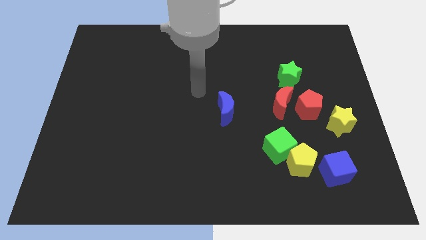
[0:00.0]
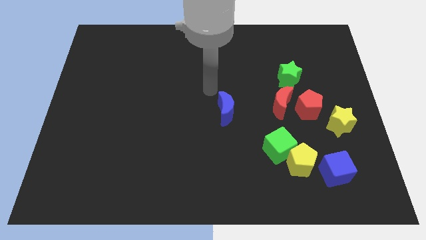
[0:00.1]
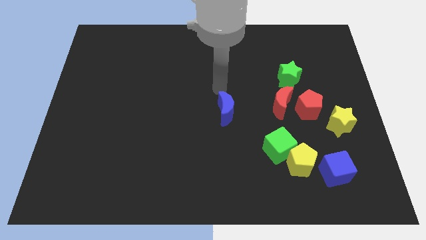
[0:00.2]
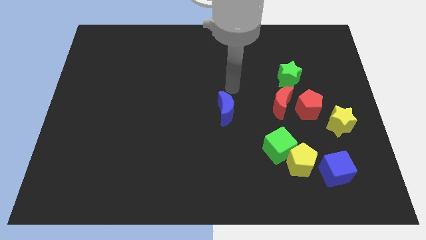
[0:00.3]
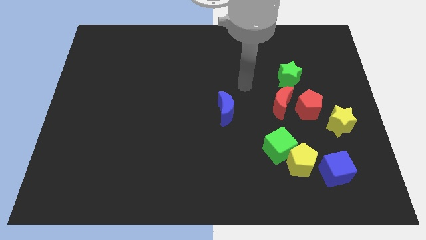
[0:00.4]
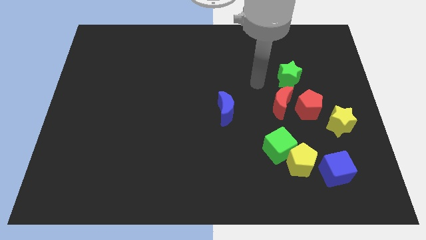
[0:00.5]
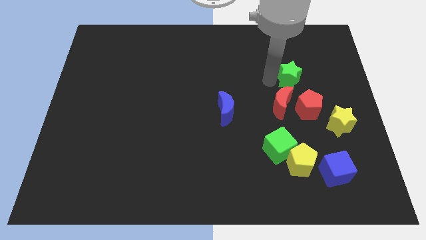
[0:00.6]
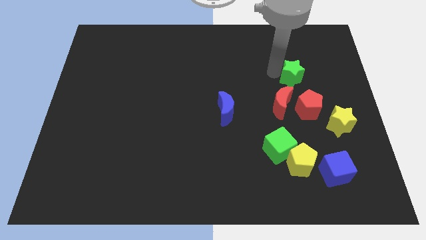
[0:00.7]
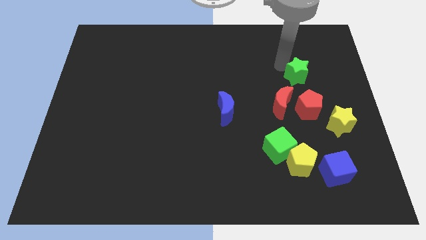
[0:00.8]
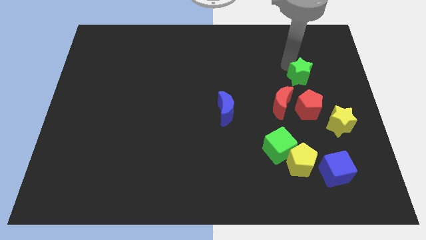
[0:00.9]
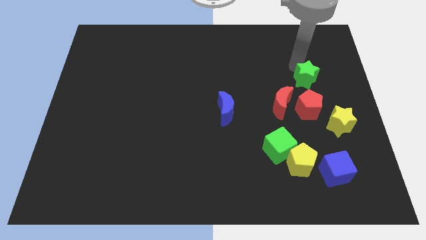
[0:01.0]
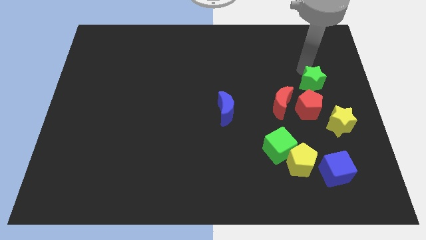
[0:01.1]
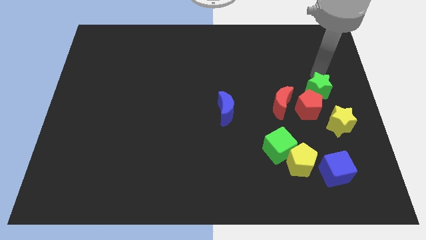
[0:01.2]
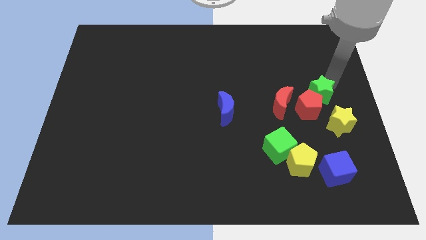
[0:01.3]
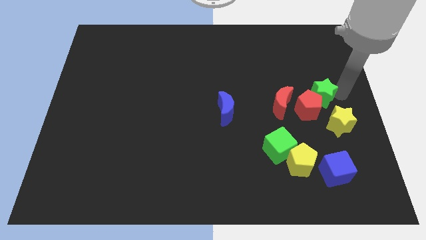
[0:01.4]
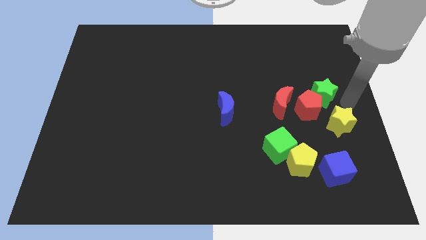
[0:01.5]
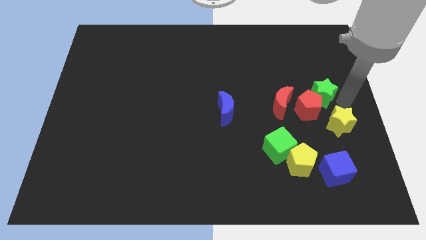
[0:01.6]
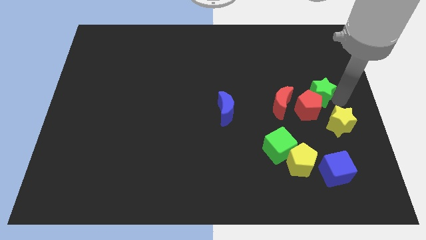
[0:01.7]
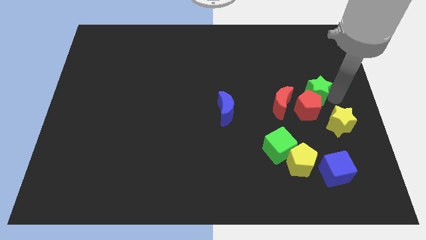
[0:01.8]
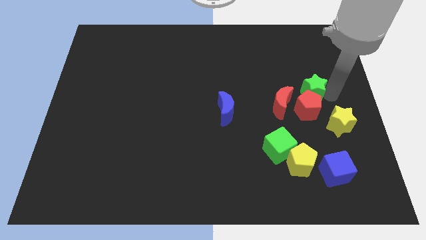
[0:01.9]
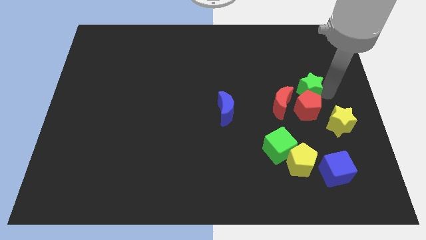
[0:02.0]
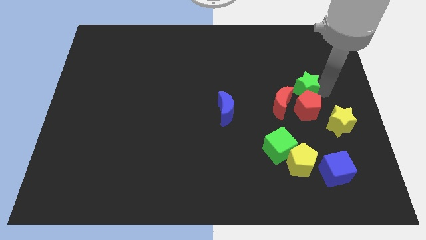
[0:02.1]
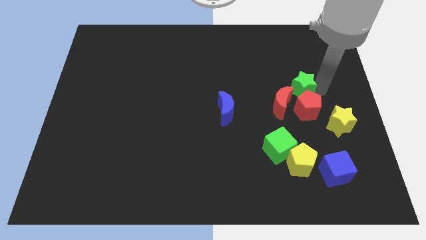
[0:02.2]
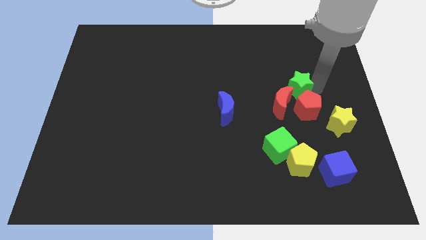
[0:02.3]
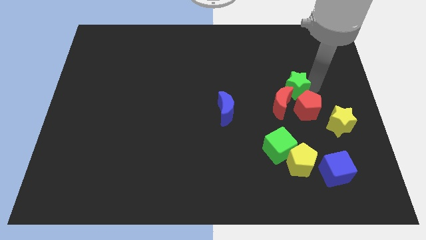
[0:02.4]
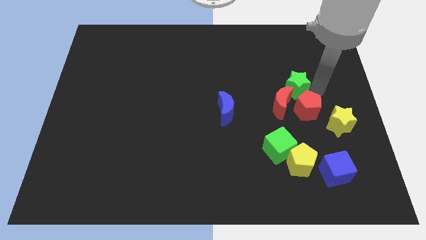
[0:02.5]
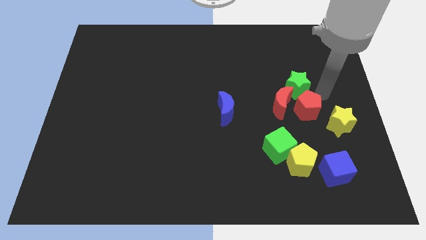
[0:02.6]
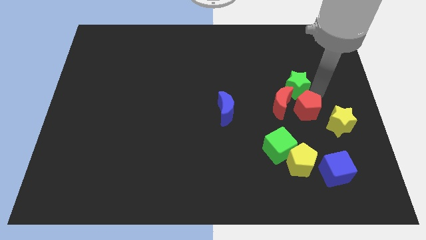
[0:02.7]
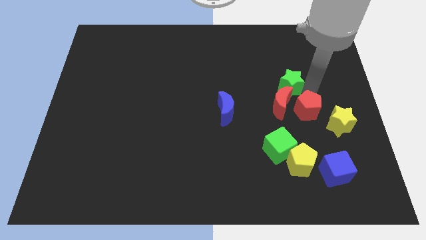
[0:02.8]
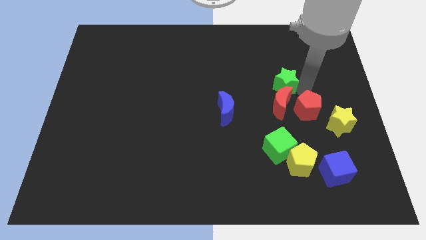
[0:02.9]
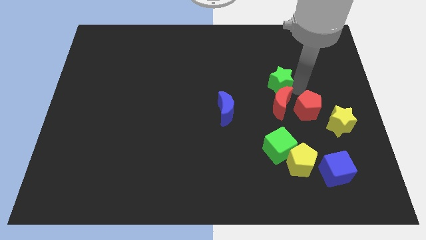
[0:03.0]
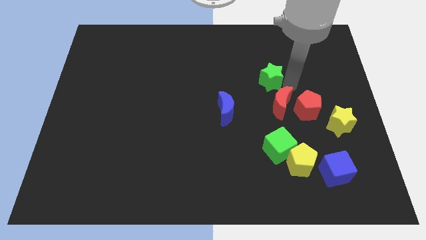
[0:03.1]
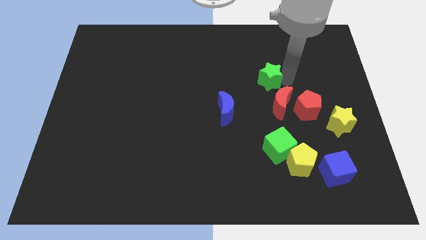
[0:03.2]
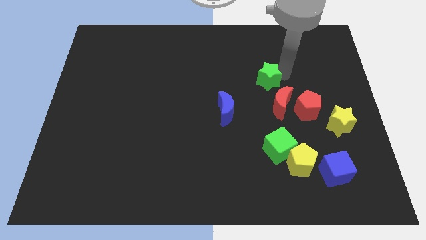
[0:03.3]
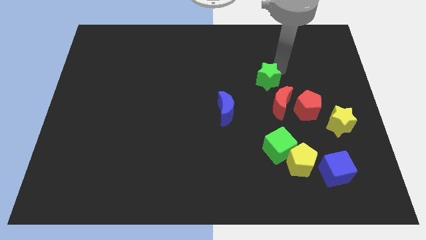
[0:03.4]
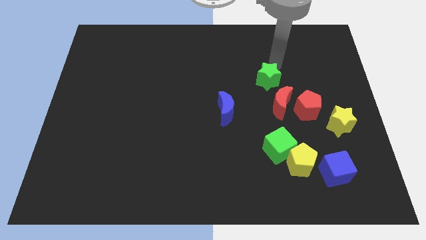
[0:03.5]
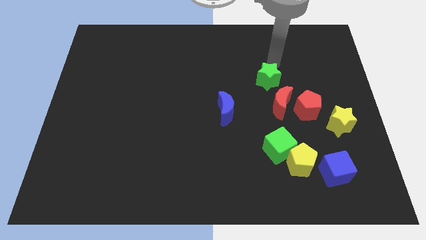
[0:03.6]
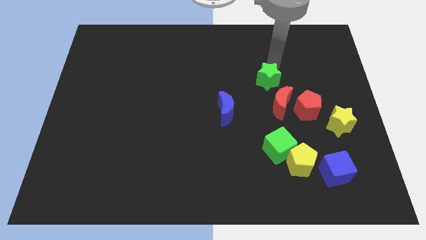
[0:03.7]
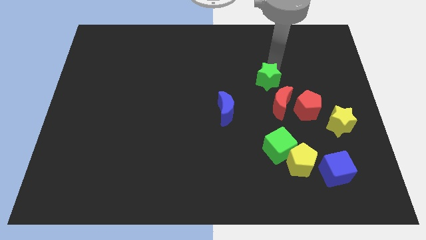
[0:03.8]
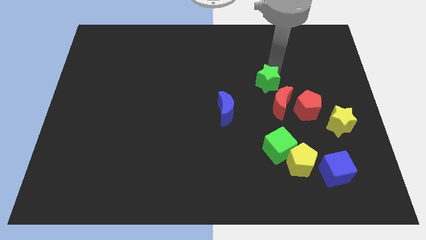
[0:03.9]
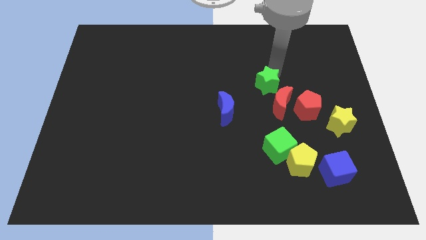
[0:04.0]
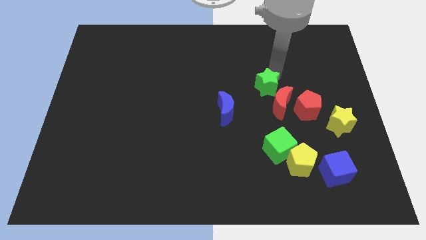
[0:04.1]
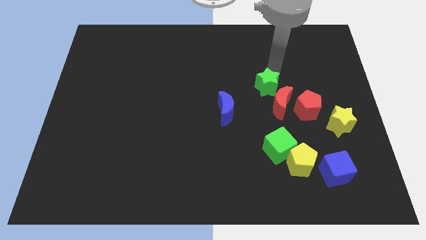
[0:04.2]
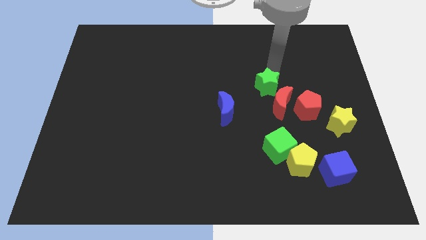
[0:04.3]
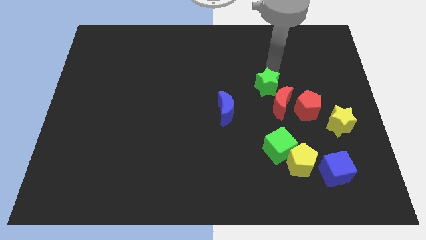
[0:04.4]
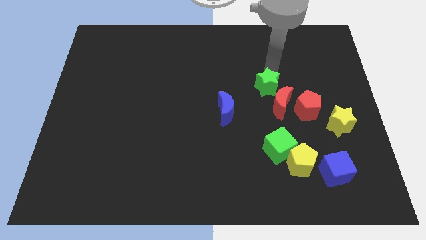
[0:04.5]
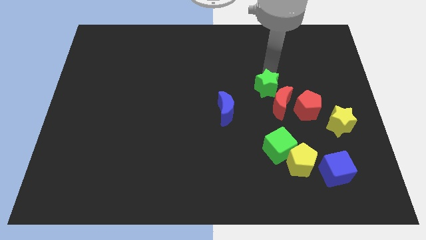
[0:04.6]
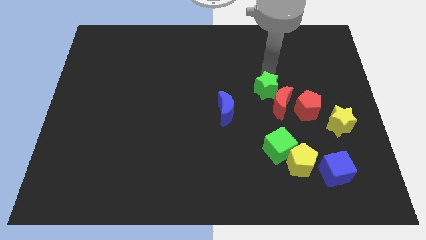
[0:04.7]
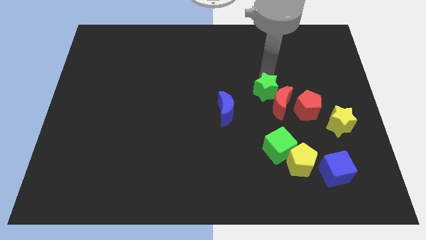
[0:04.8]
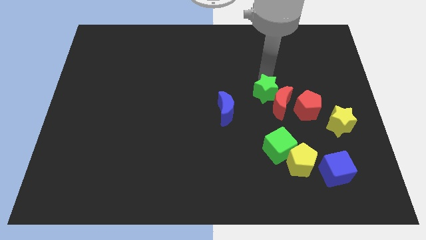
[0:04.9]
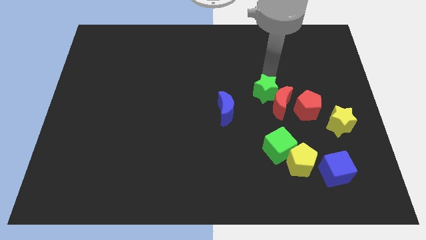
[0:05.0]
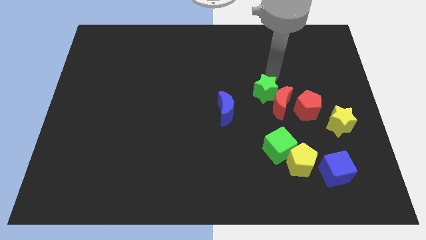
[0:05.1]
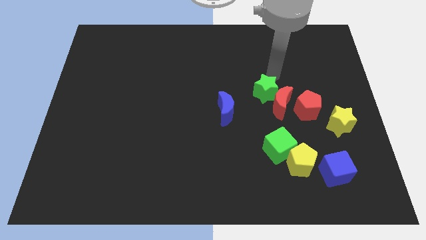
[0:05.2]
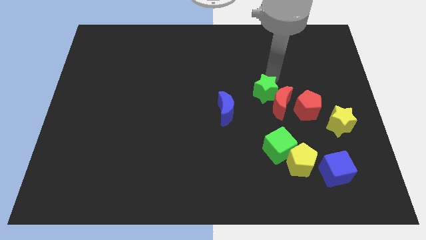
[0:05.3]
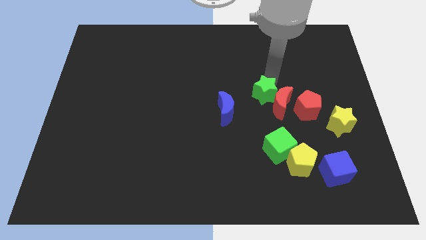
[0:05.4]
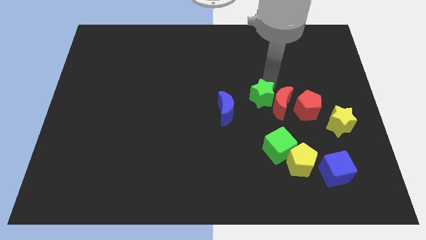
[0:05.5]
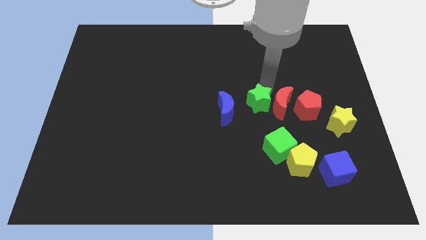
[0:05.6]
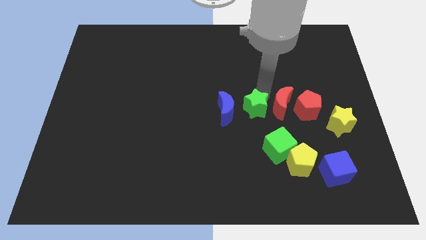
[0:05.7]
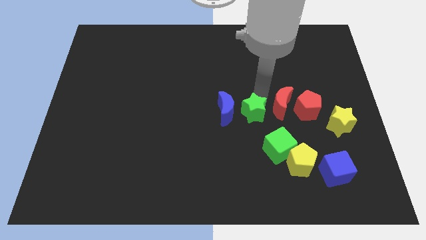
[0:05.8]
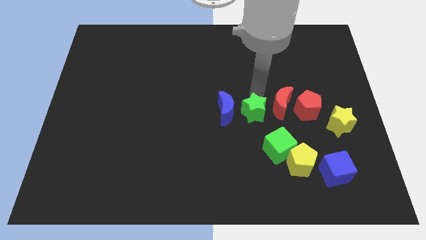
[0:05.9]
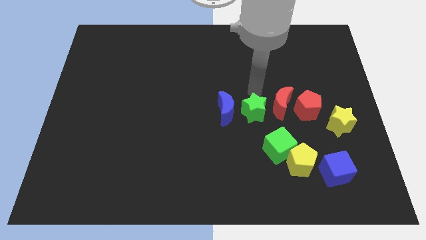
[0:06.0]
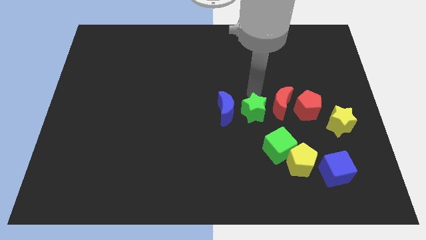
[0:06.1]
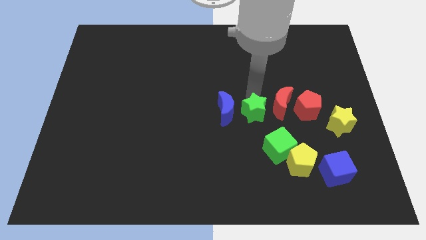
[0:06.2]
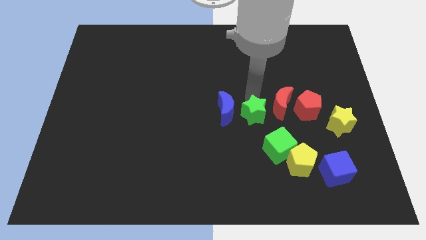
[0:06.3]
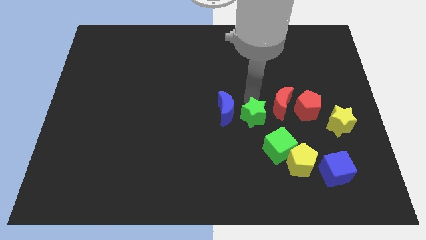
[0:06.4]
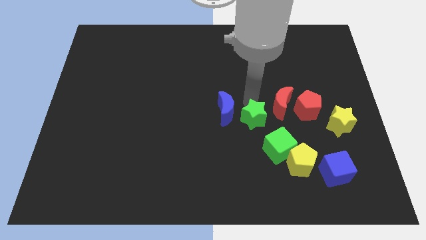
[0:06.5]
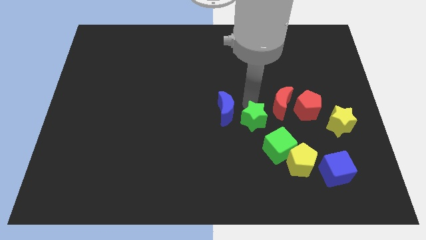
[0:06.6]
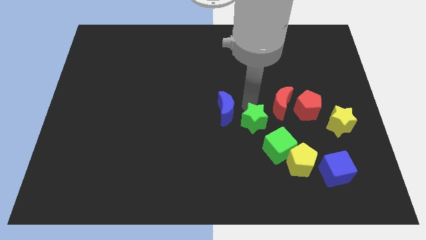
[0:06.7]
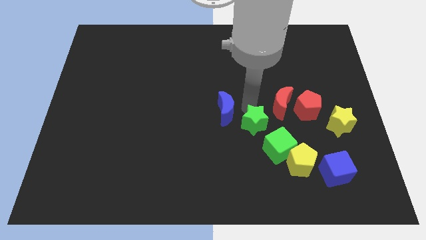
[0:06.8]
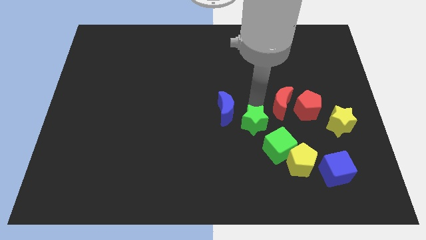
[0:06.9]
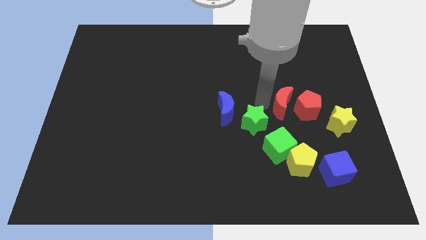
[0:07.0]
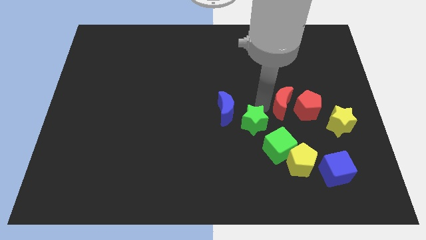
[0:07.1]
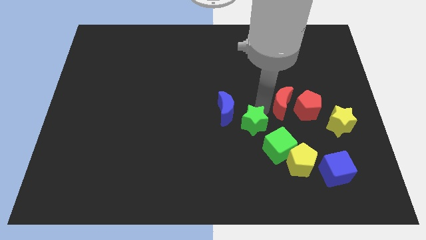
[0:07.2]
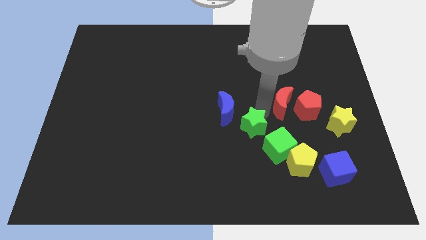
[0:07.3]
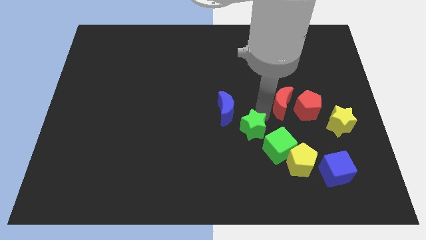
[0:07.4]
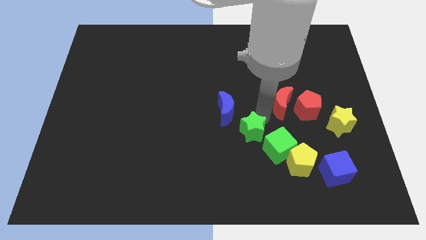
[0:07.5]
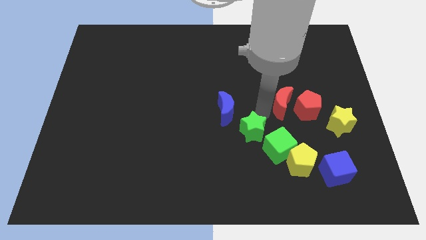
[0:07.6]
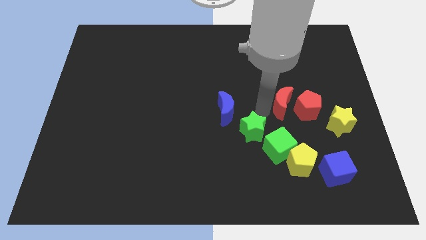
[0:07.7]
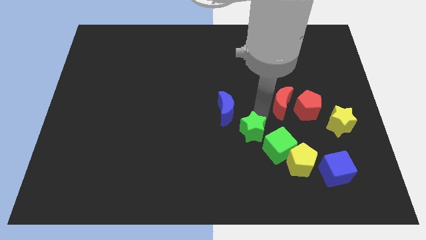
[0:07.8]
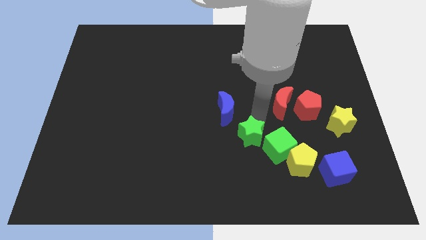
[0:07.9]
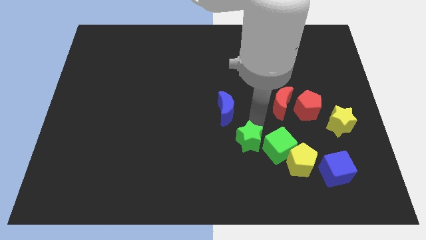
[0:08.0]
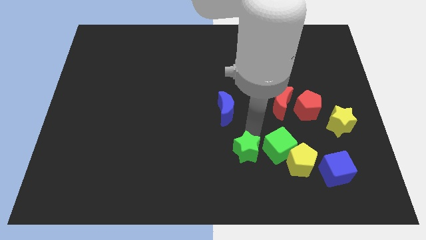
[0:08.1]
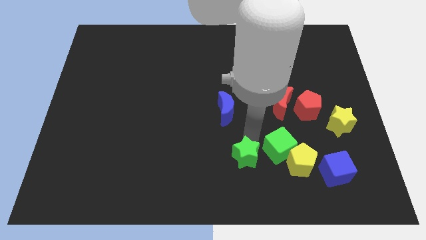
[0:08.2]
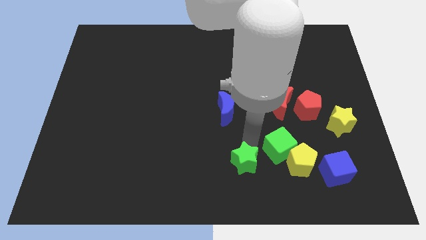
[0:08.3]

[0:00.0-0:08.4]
put the green star to the bottom side
